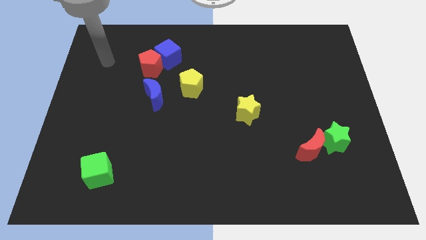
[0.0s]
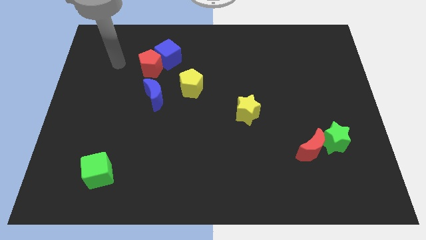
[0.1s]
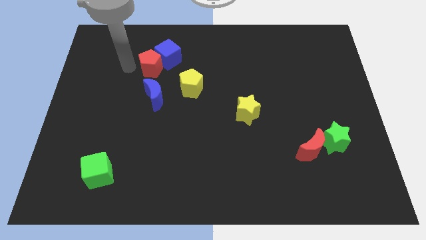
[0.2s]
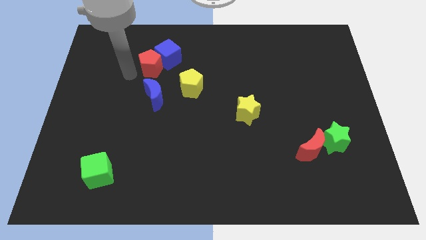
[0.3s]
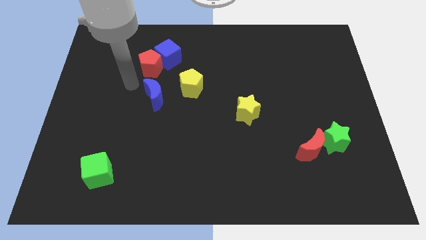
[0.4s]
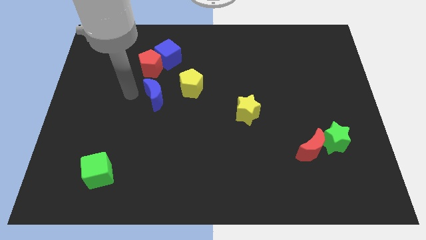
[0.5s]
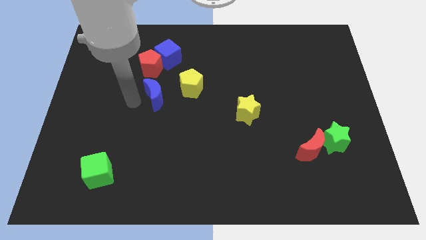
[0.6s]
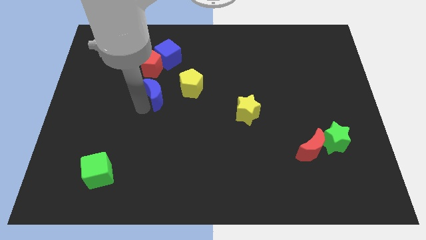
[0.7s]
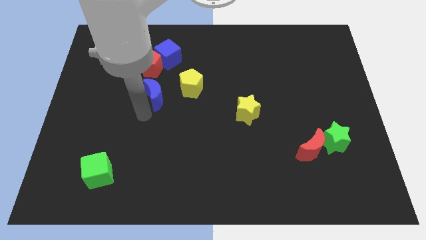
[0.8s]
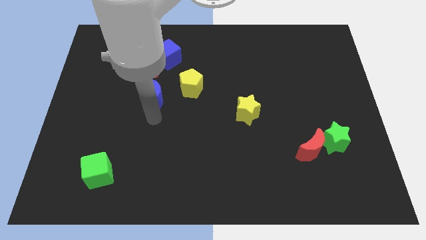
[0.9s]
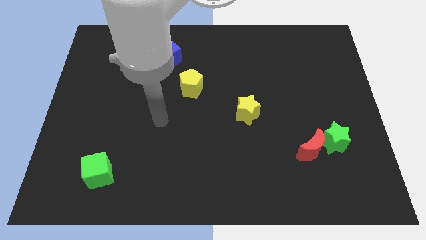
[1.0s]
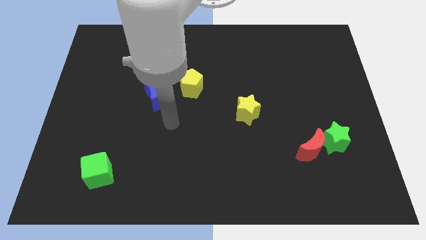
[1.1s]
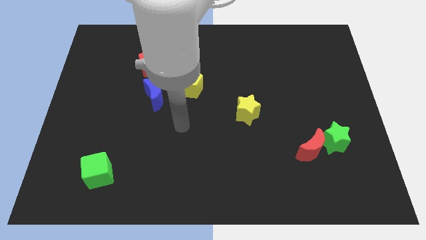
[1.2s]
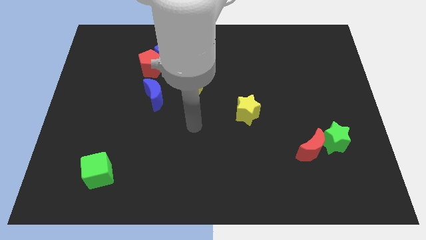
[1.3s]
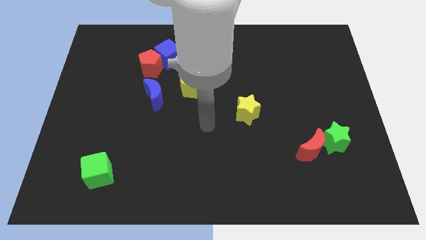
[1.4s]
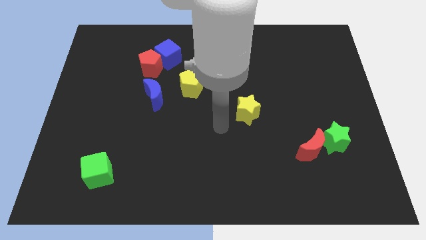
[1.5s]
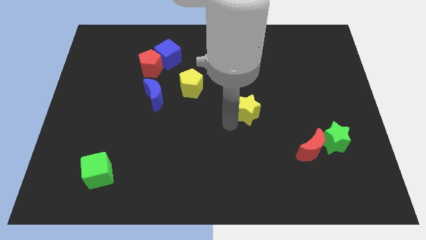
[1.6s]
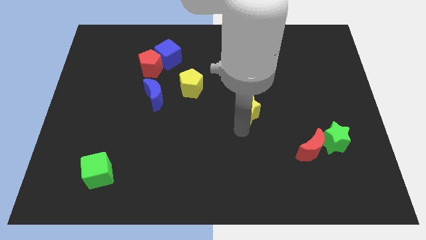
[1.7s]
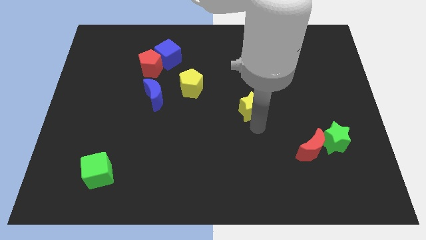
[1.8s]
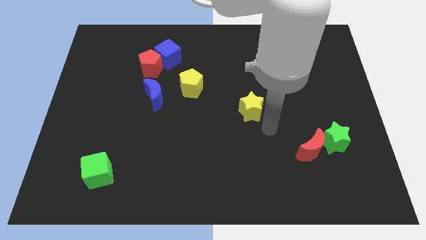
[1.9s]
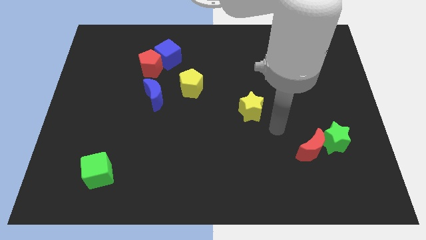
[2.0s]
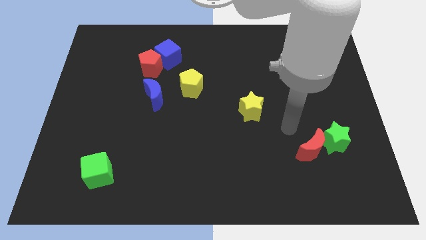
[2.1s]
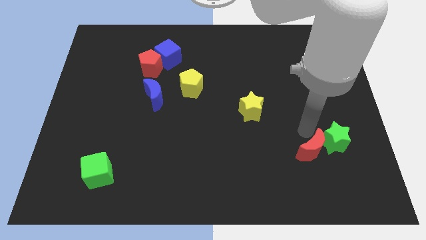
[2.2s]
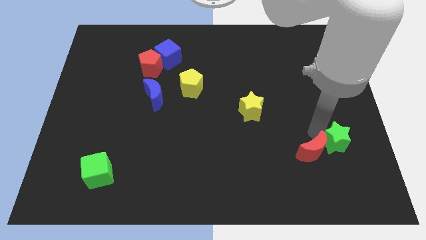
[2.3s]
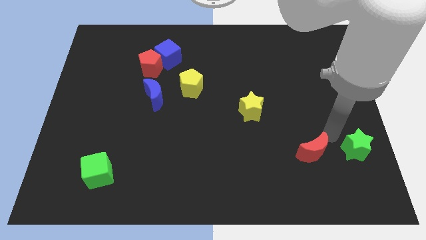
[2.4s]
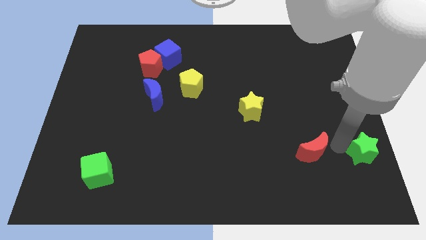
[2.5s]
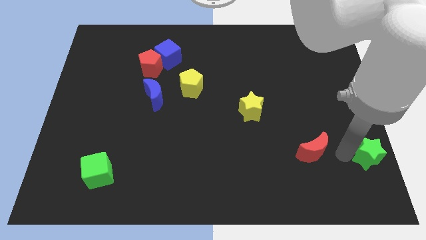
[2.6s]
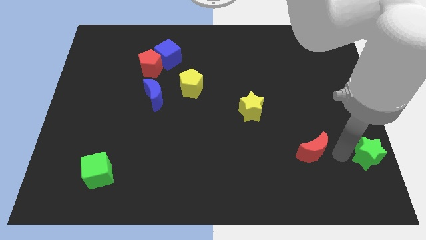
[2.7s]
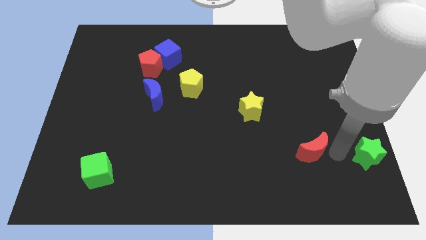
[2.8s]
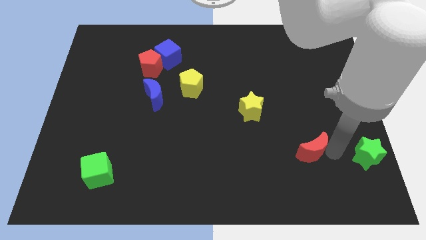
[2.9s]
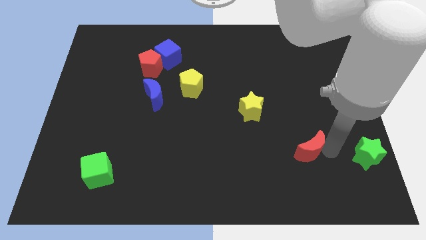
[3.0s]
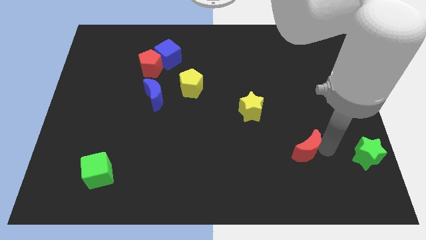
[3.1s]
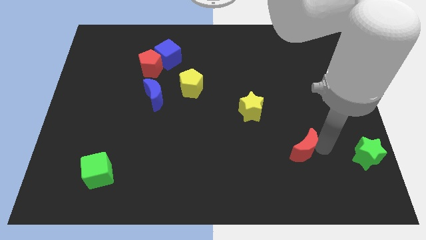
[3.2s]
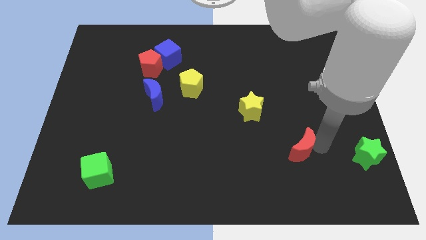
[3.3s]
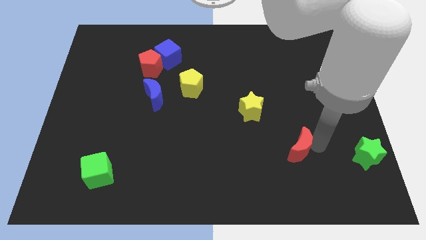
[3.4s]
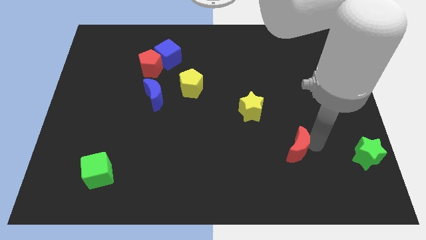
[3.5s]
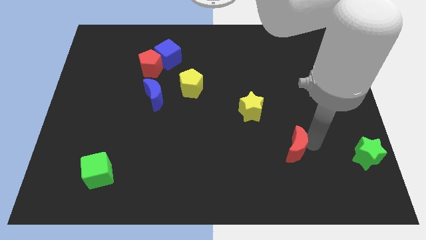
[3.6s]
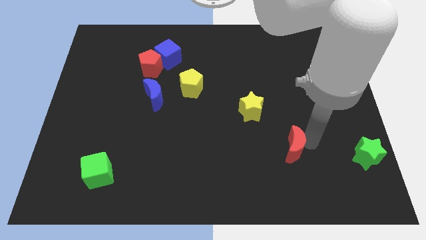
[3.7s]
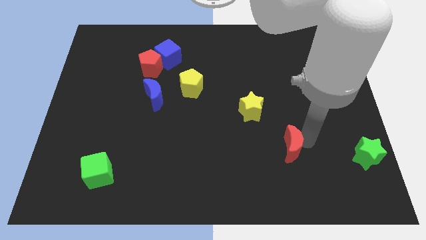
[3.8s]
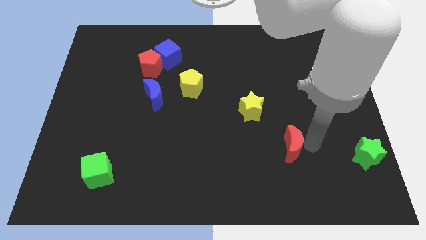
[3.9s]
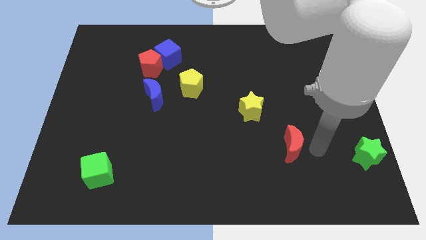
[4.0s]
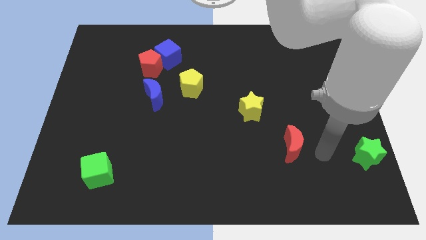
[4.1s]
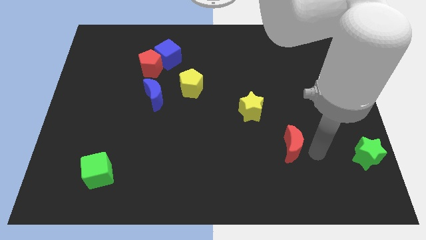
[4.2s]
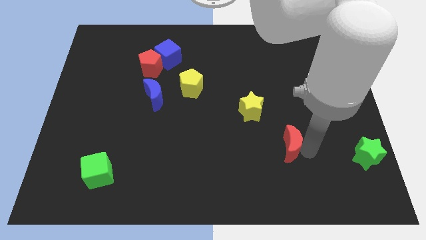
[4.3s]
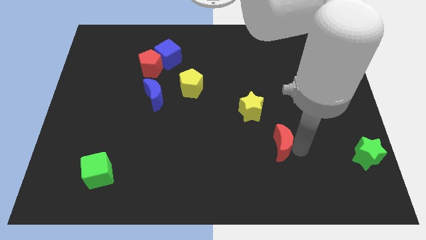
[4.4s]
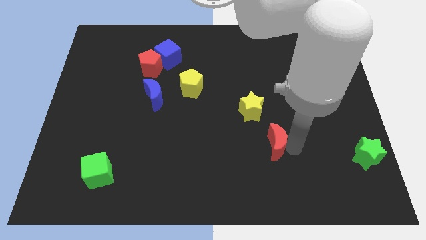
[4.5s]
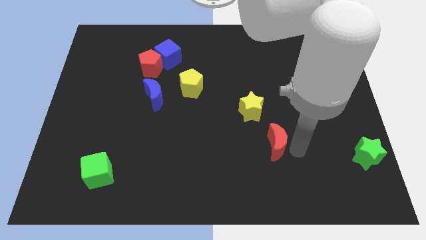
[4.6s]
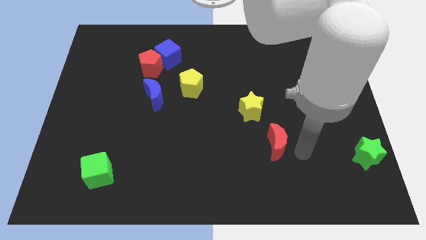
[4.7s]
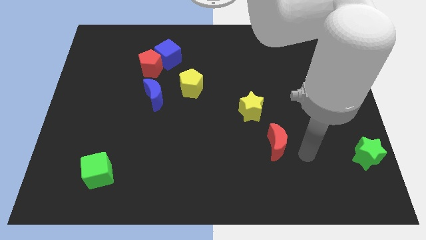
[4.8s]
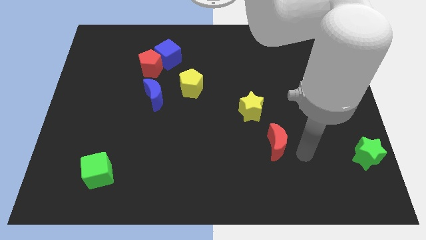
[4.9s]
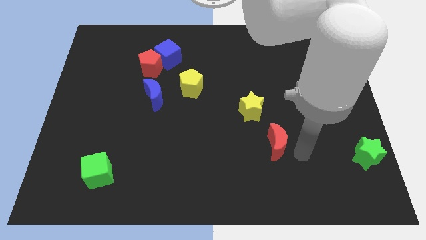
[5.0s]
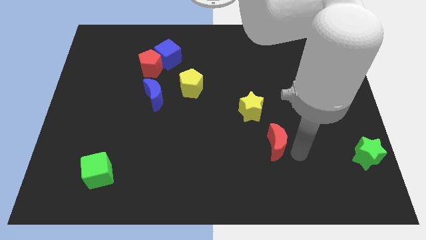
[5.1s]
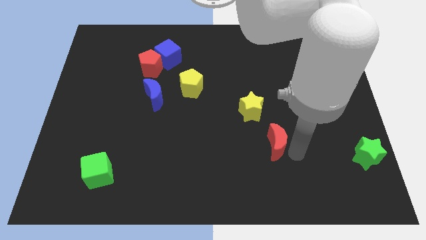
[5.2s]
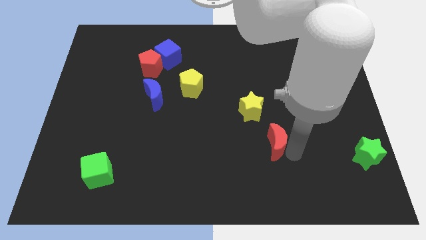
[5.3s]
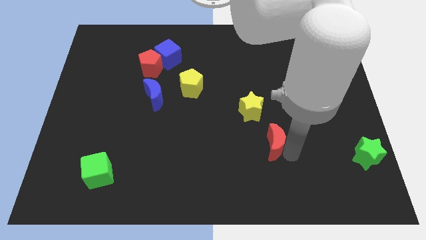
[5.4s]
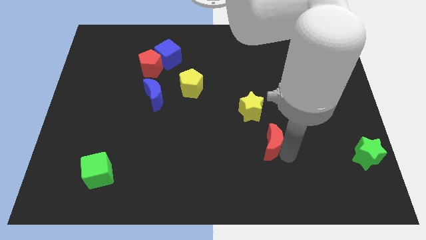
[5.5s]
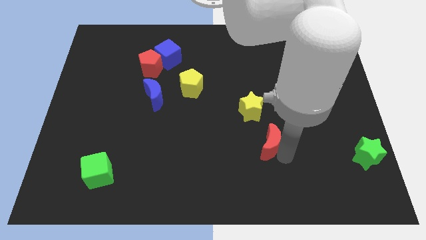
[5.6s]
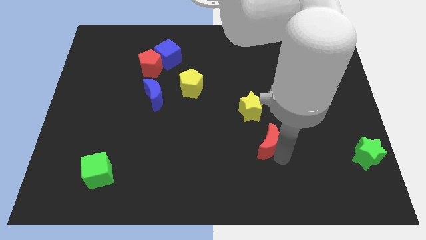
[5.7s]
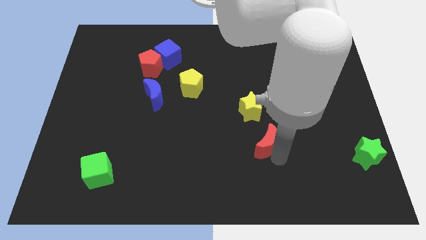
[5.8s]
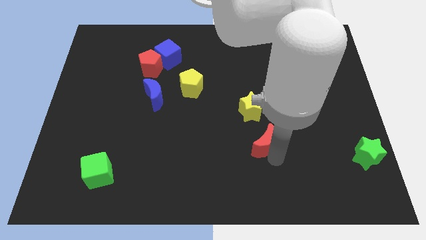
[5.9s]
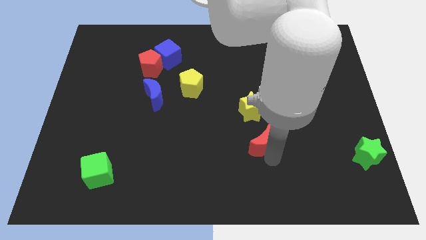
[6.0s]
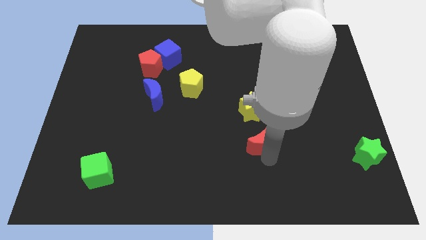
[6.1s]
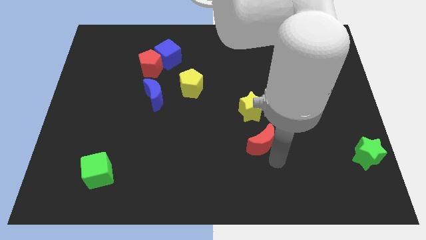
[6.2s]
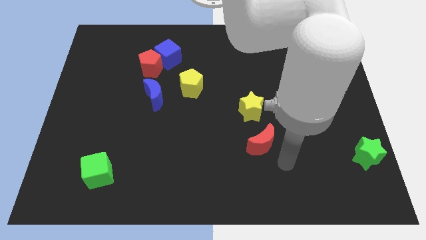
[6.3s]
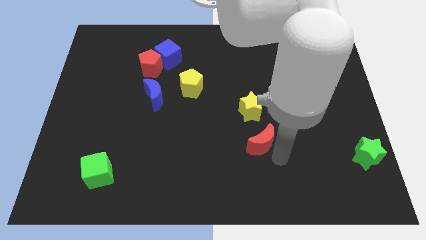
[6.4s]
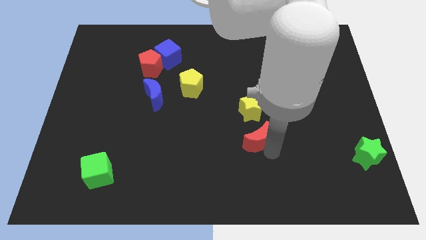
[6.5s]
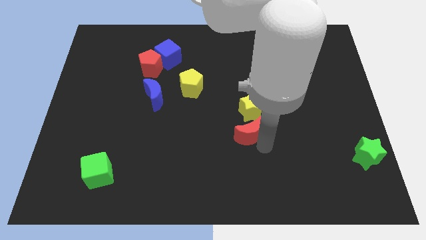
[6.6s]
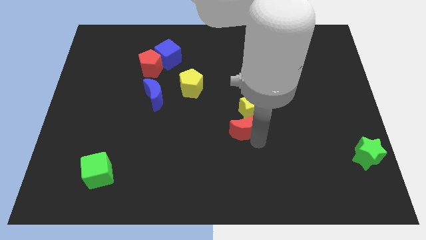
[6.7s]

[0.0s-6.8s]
put the red moon to the center

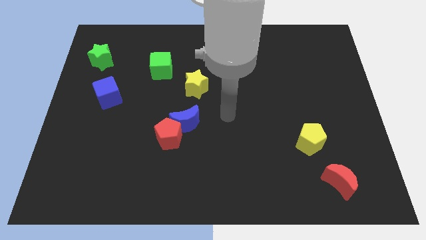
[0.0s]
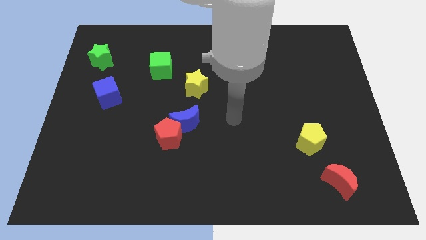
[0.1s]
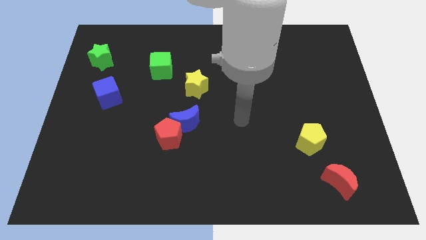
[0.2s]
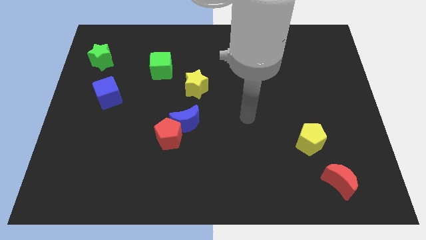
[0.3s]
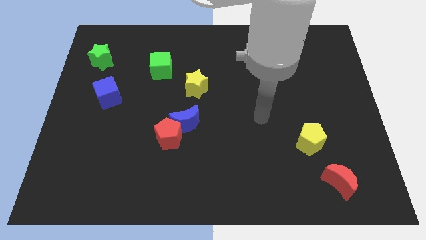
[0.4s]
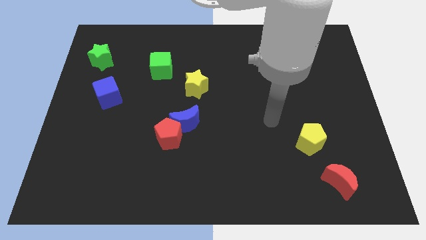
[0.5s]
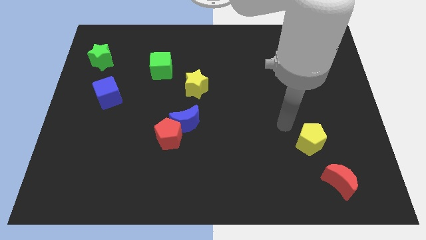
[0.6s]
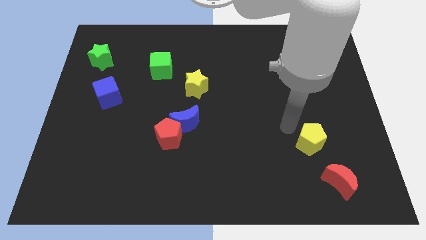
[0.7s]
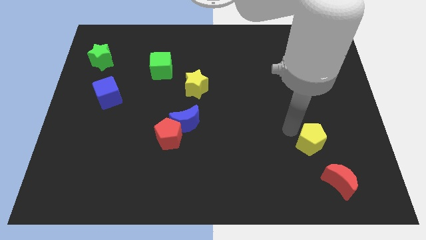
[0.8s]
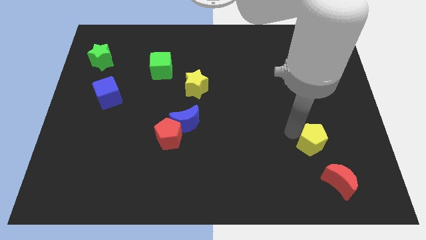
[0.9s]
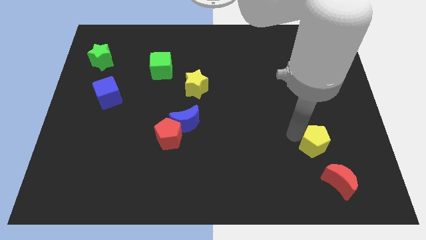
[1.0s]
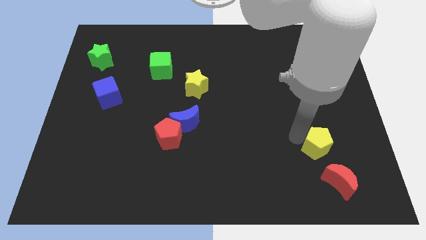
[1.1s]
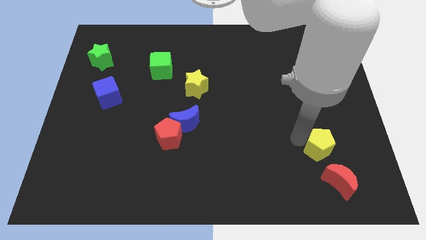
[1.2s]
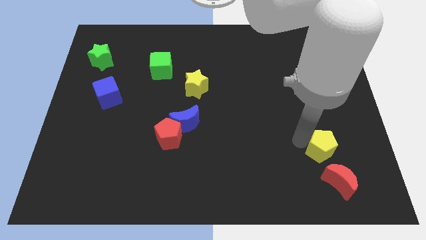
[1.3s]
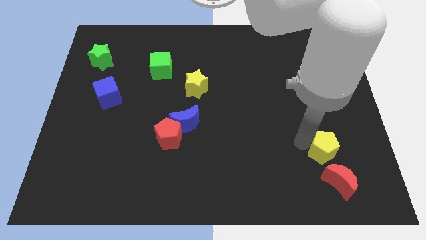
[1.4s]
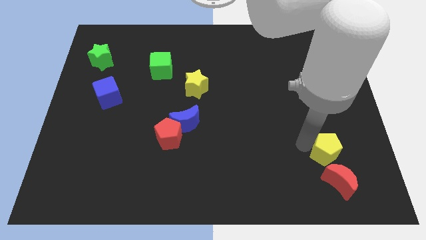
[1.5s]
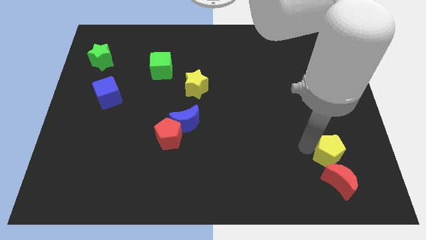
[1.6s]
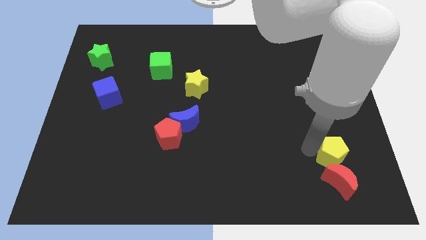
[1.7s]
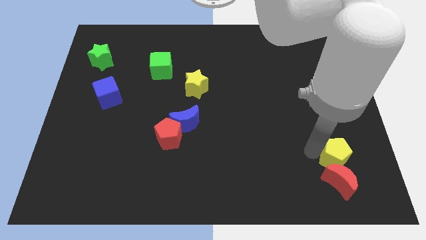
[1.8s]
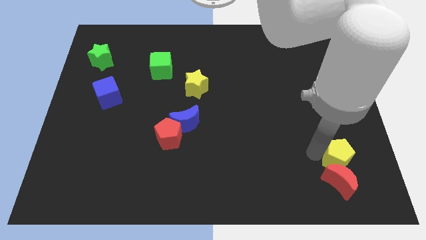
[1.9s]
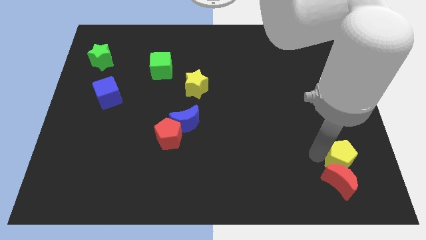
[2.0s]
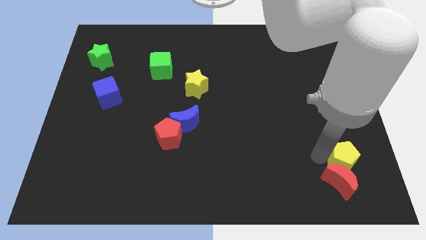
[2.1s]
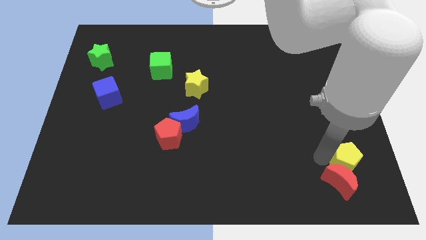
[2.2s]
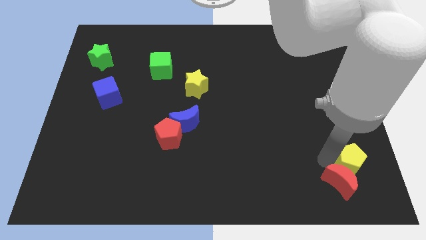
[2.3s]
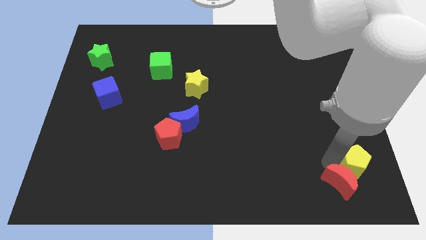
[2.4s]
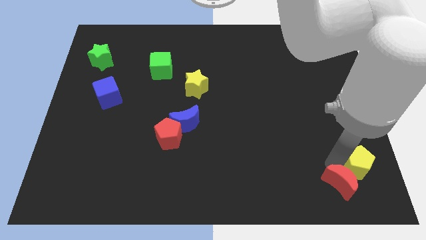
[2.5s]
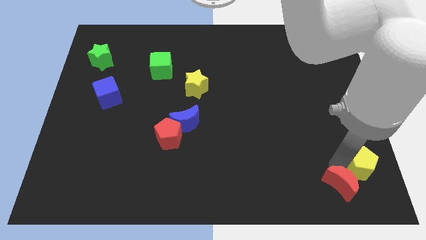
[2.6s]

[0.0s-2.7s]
slide the yellow pentagon to the lower right corner
